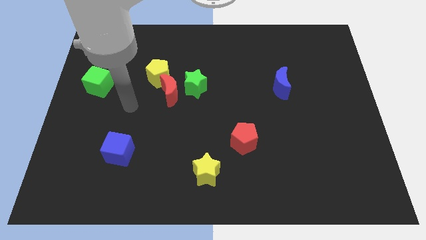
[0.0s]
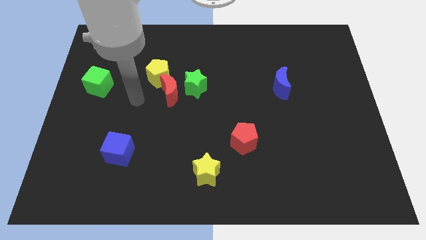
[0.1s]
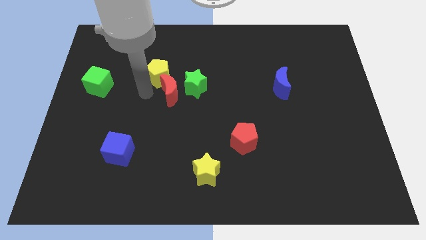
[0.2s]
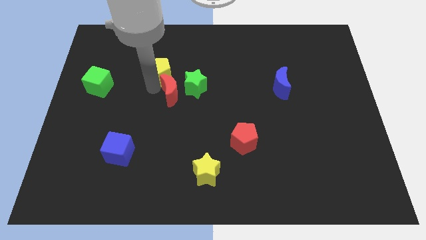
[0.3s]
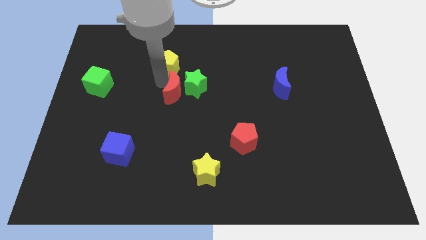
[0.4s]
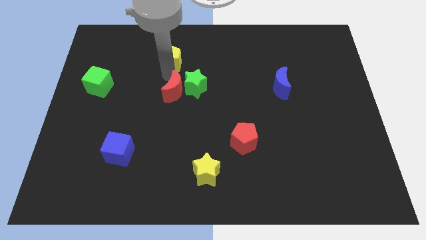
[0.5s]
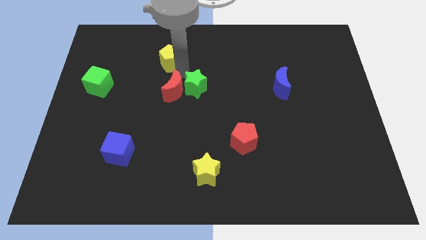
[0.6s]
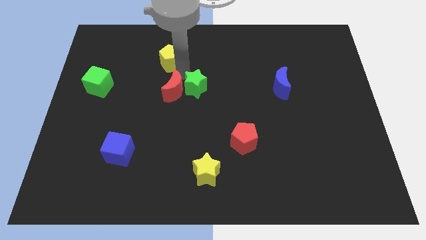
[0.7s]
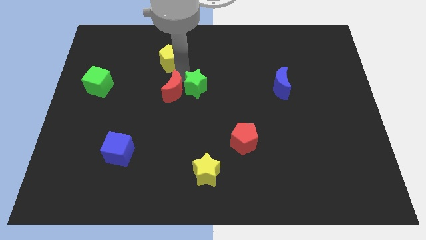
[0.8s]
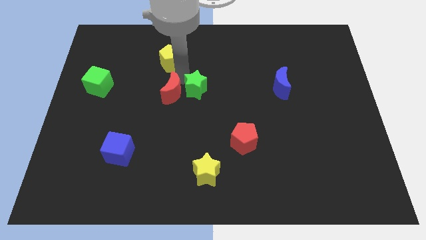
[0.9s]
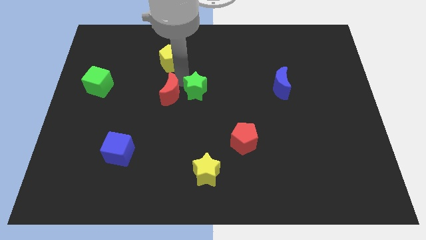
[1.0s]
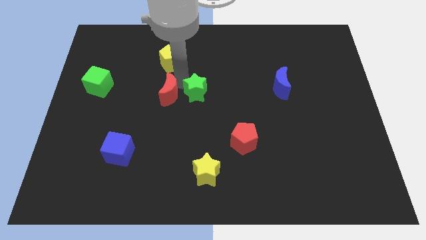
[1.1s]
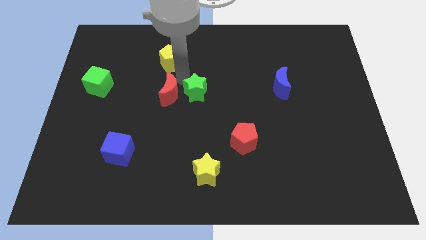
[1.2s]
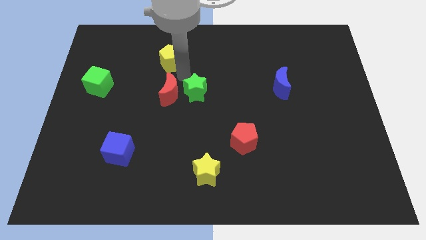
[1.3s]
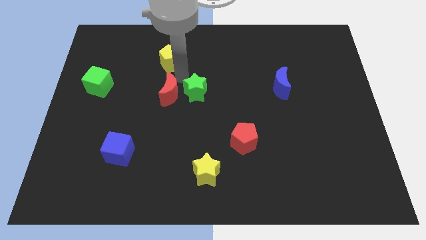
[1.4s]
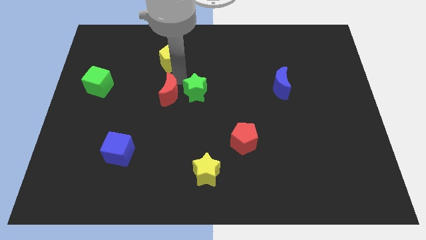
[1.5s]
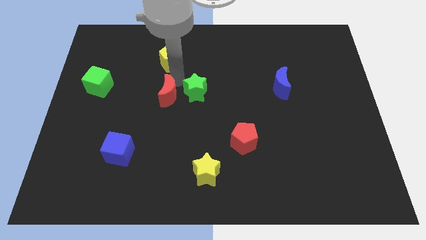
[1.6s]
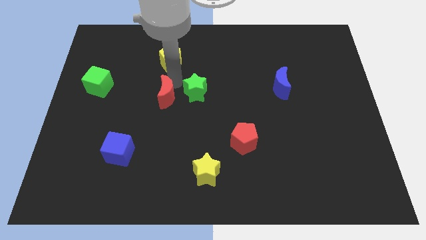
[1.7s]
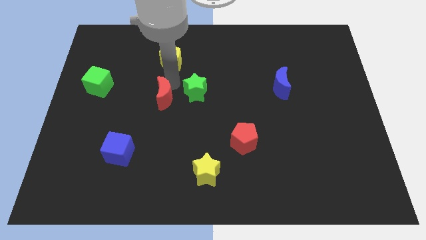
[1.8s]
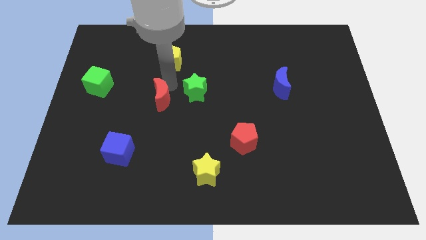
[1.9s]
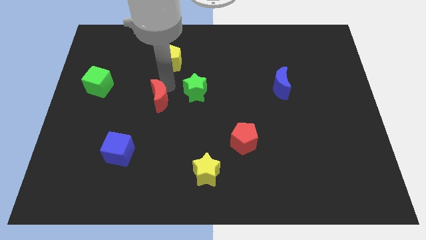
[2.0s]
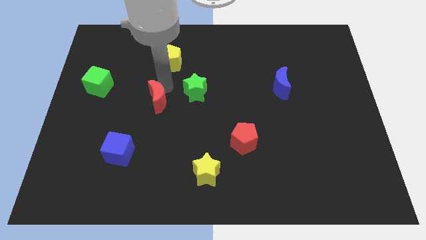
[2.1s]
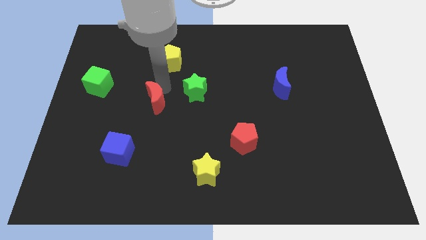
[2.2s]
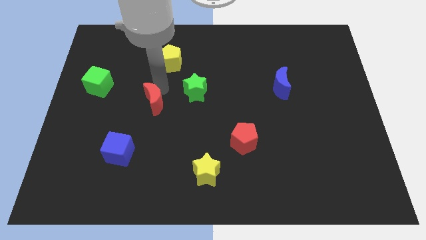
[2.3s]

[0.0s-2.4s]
pull the red moon apart from the green star and yellow pentagon

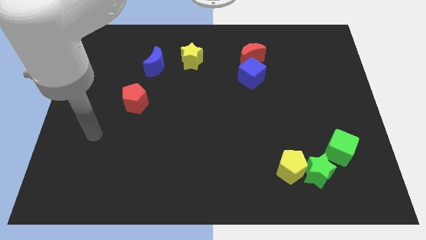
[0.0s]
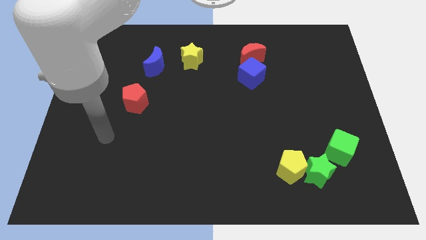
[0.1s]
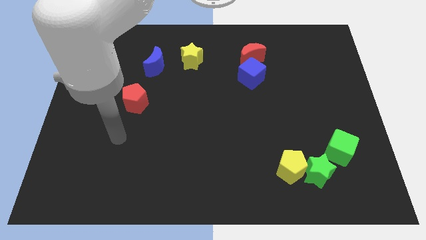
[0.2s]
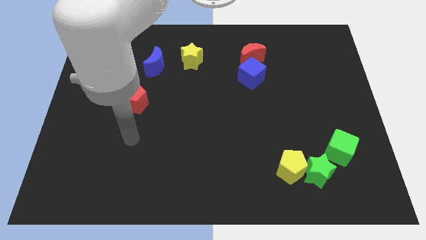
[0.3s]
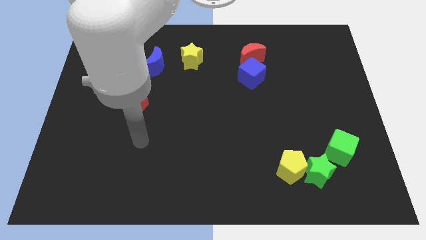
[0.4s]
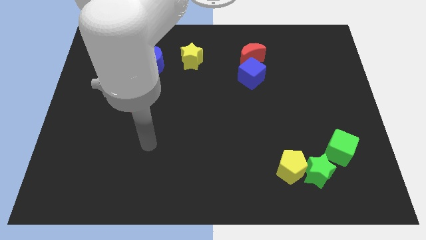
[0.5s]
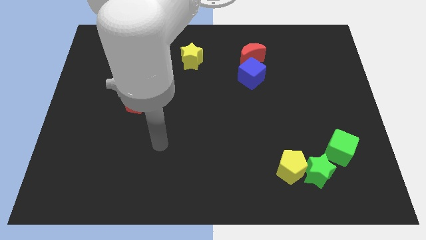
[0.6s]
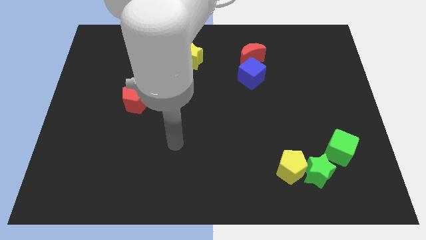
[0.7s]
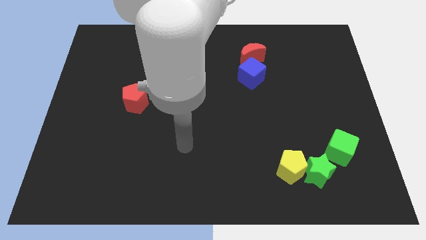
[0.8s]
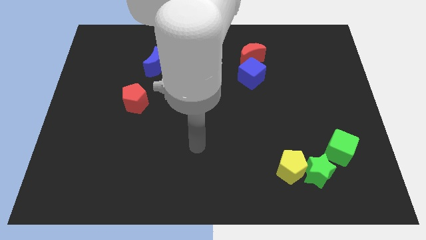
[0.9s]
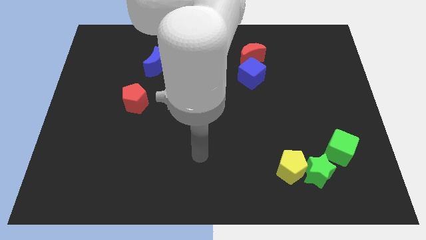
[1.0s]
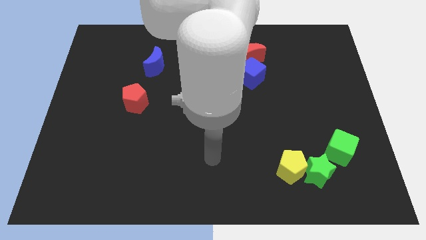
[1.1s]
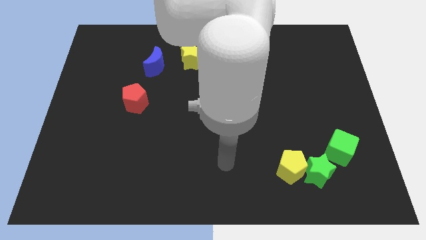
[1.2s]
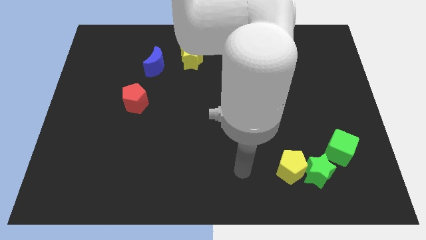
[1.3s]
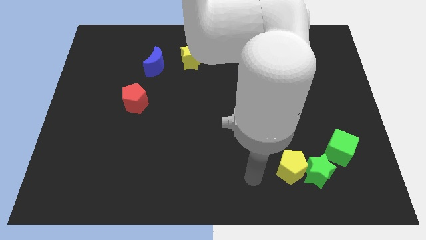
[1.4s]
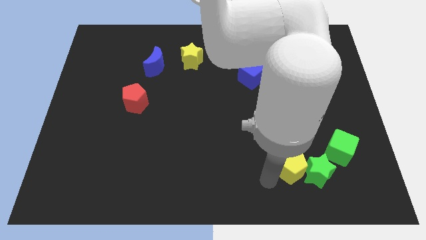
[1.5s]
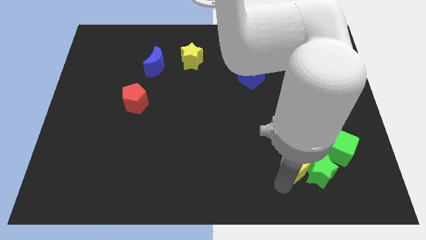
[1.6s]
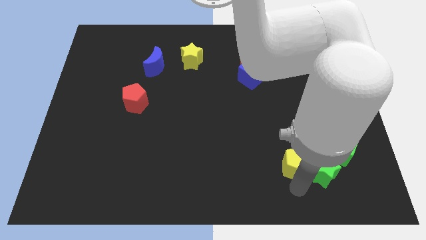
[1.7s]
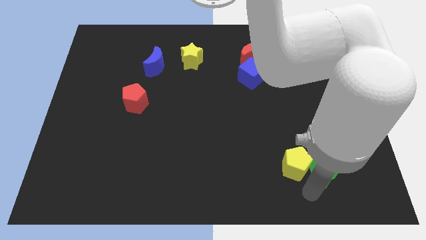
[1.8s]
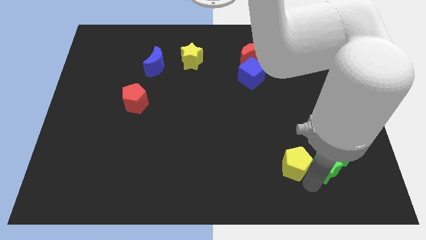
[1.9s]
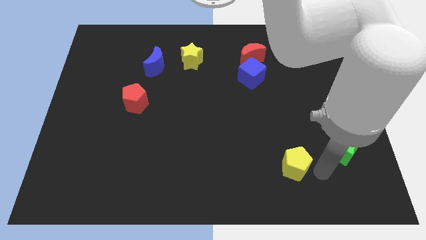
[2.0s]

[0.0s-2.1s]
pull the yellow pentagon apart from the green star

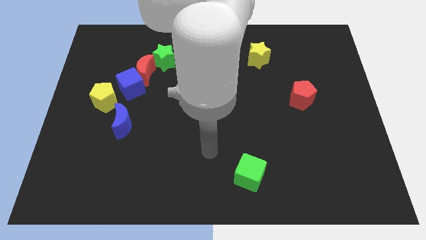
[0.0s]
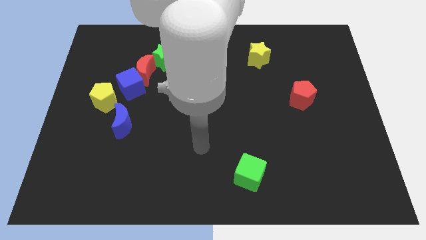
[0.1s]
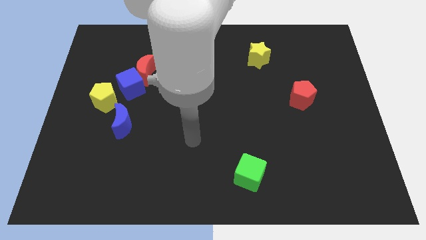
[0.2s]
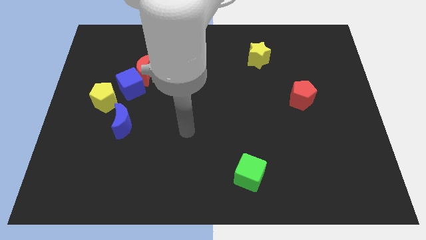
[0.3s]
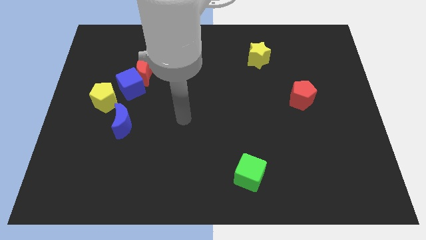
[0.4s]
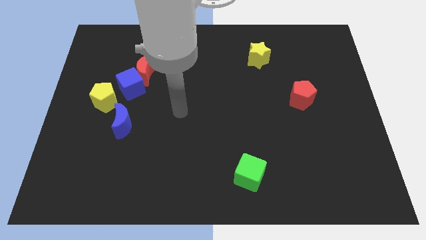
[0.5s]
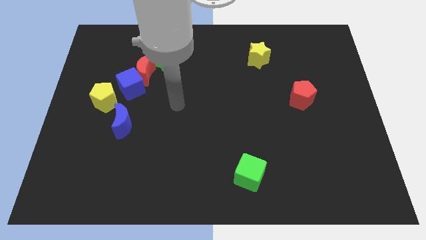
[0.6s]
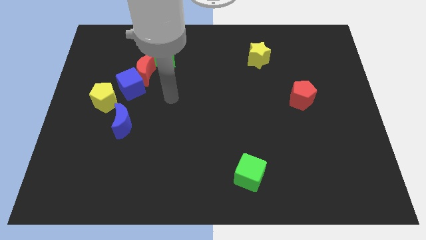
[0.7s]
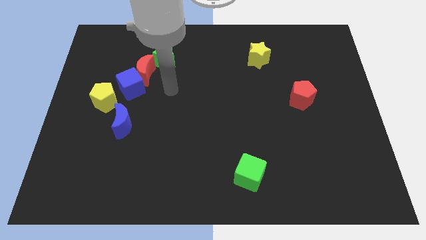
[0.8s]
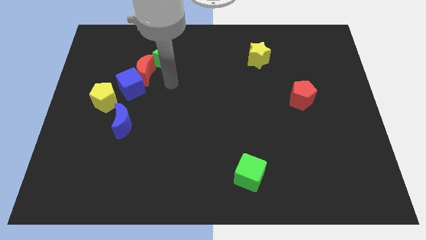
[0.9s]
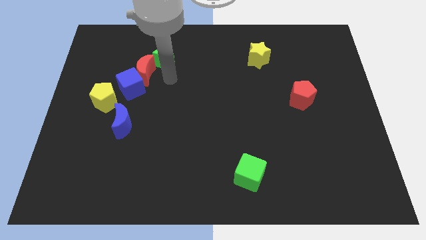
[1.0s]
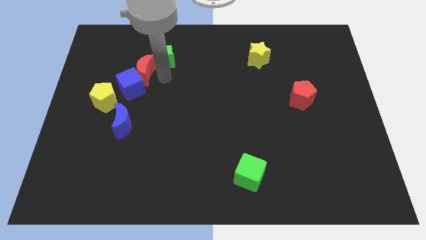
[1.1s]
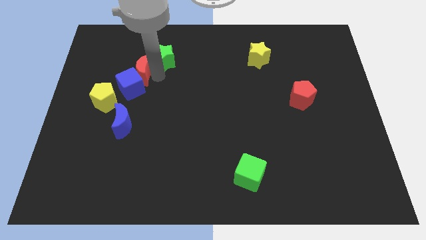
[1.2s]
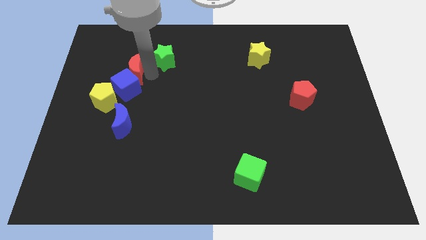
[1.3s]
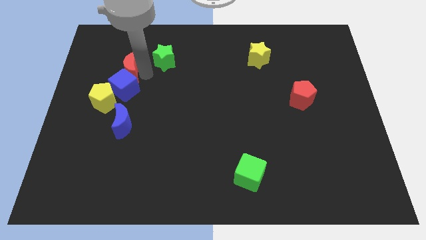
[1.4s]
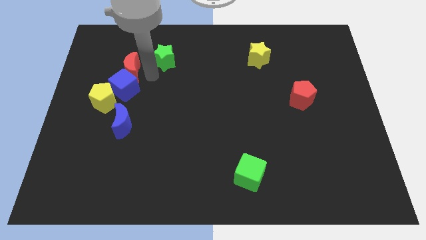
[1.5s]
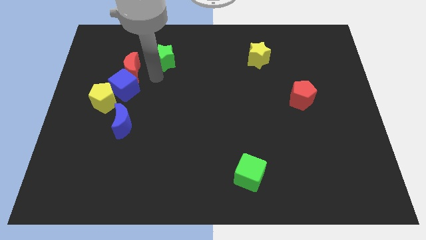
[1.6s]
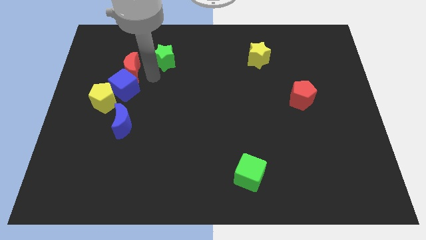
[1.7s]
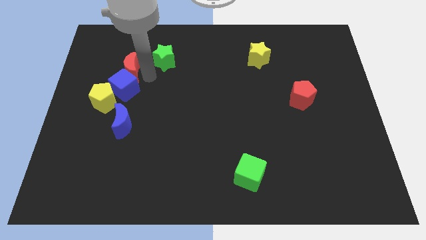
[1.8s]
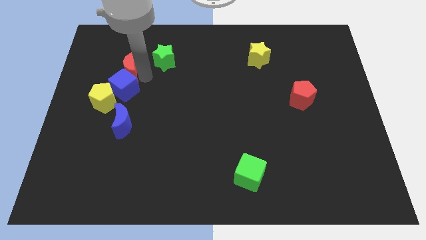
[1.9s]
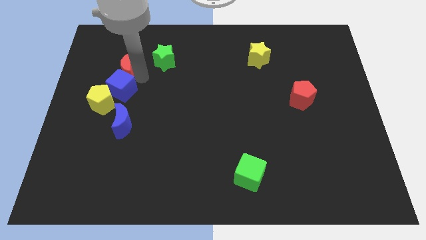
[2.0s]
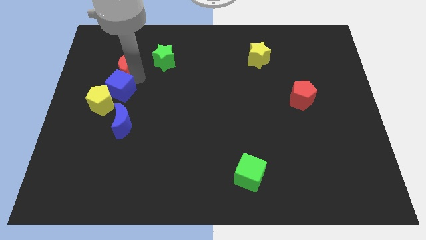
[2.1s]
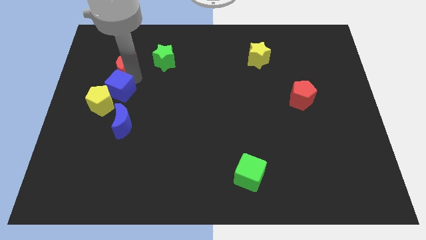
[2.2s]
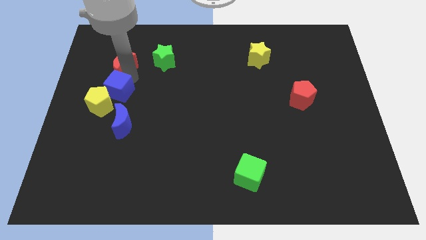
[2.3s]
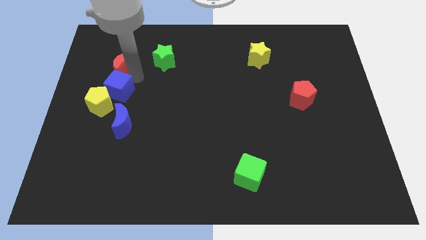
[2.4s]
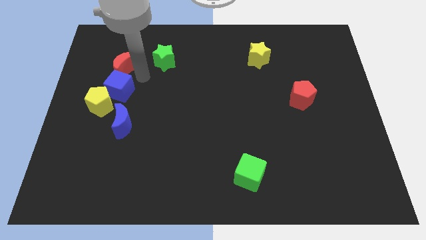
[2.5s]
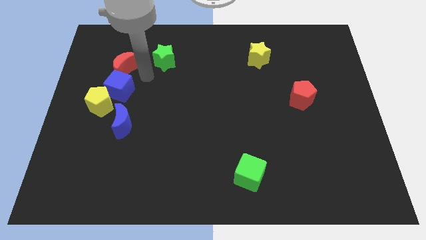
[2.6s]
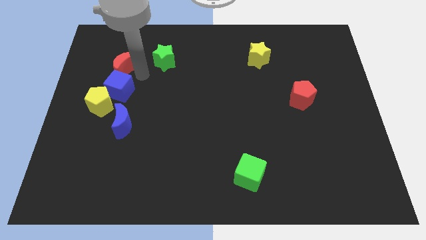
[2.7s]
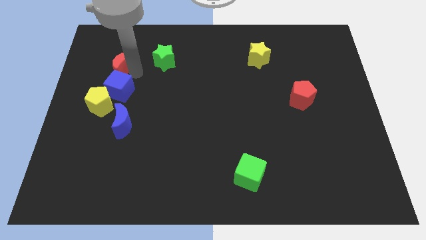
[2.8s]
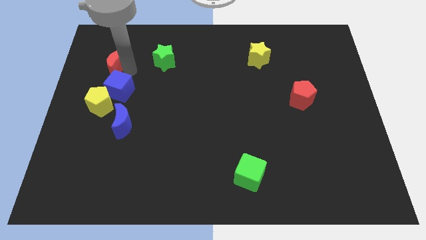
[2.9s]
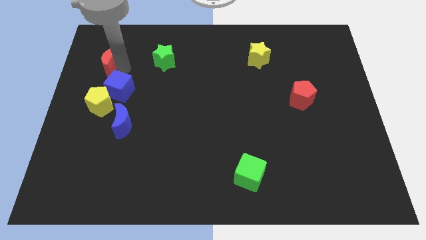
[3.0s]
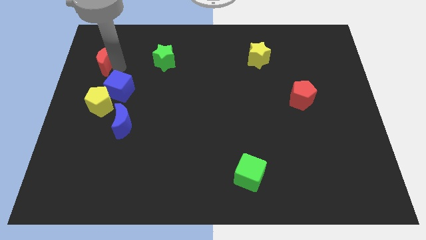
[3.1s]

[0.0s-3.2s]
pull the red moon apart from the blue cube and green star

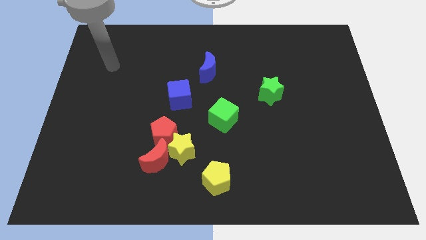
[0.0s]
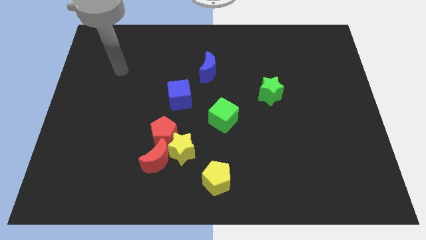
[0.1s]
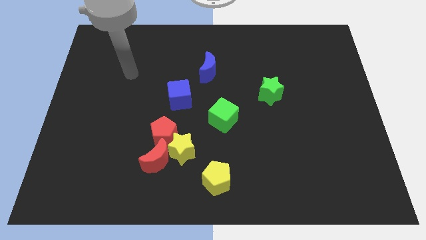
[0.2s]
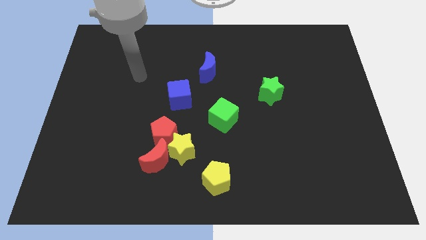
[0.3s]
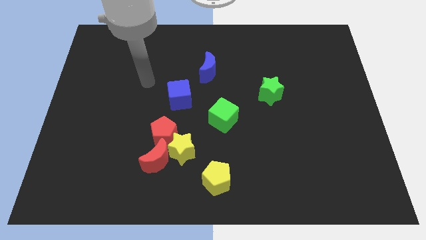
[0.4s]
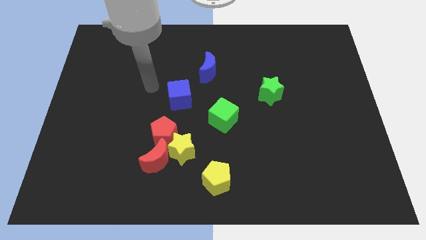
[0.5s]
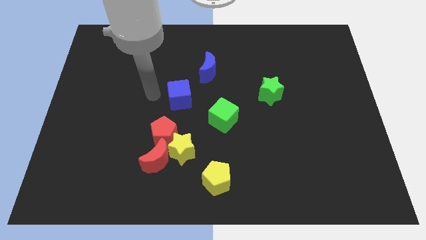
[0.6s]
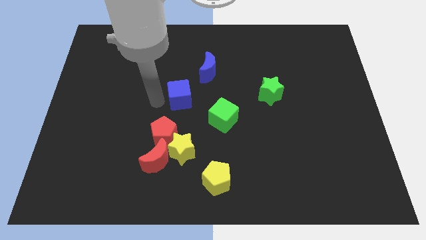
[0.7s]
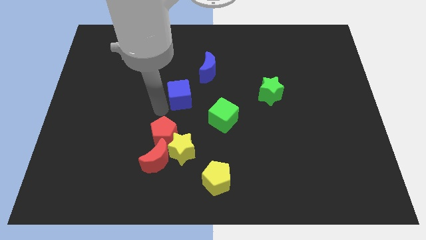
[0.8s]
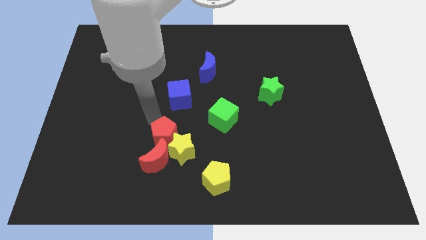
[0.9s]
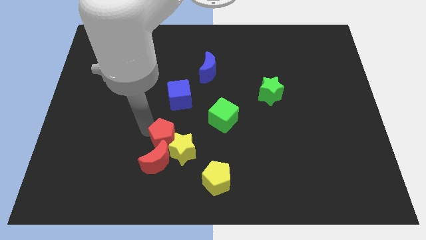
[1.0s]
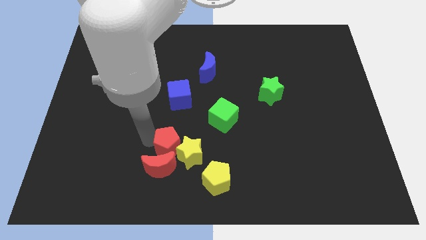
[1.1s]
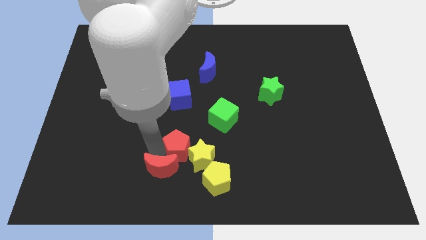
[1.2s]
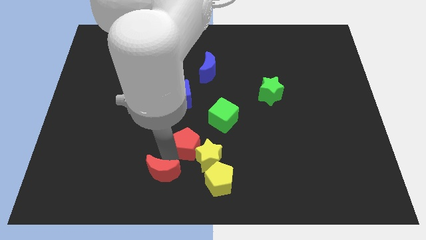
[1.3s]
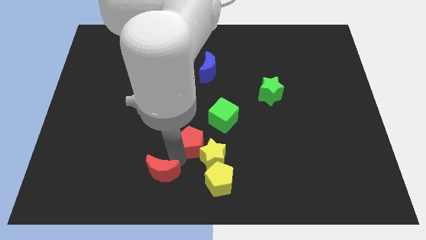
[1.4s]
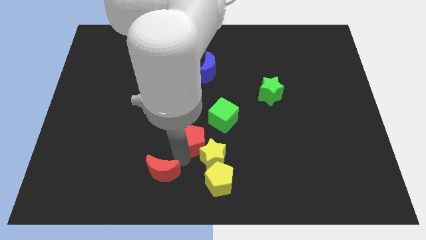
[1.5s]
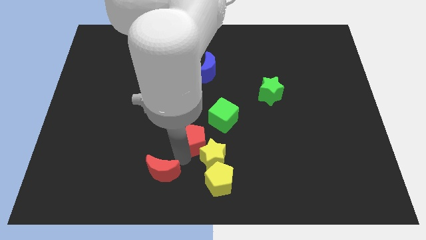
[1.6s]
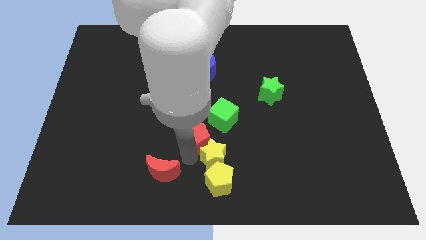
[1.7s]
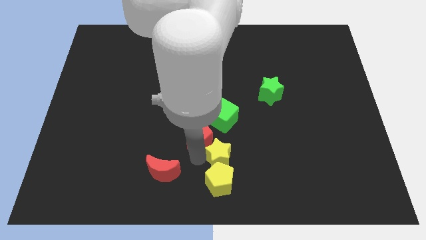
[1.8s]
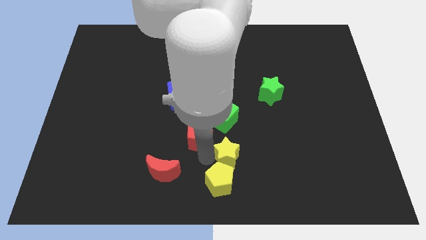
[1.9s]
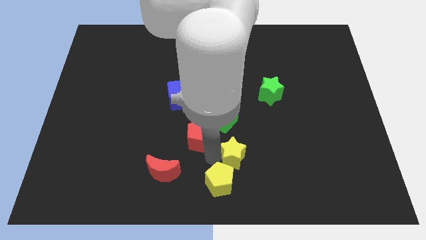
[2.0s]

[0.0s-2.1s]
separate the yellow star from the red moon and red pentagon
